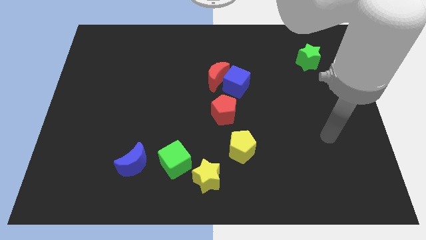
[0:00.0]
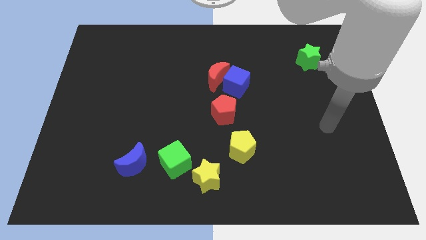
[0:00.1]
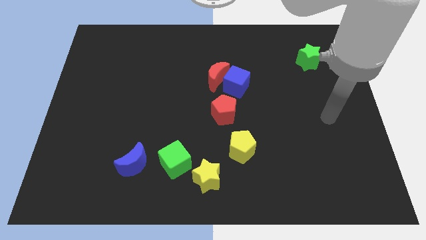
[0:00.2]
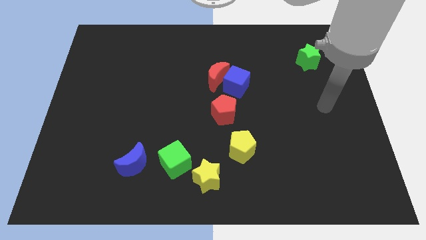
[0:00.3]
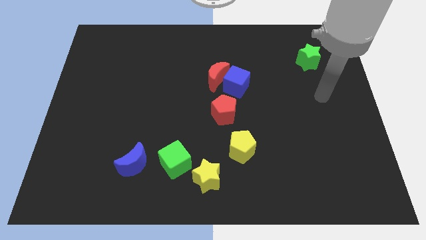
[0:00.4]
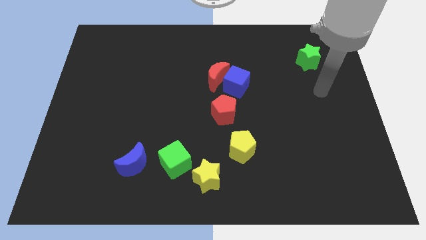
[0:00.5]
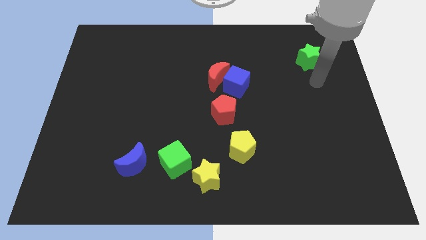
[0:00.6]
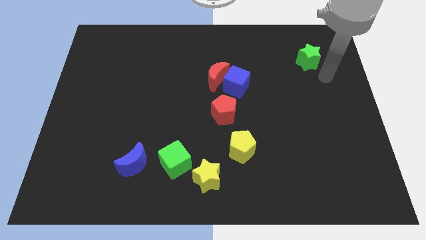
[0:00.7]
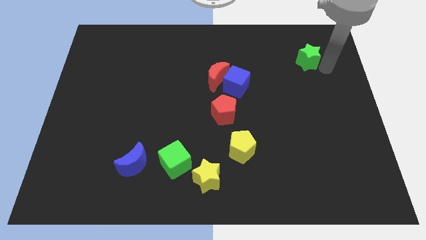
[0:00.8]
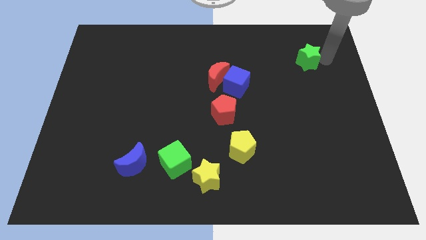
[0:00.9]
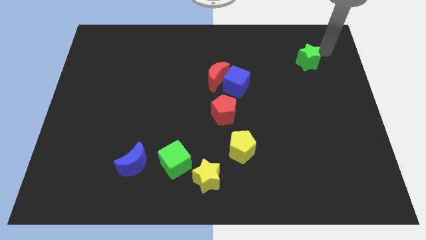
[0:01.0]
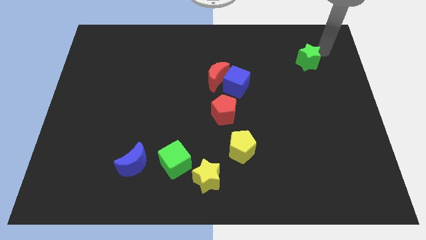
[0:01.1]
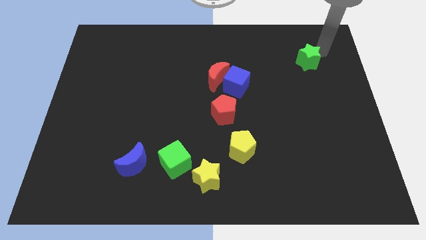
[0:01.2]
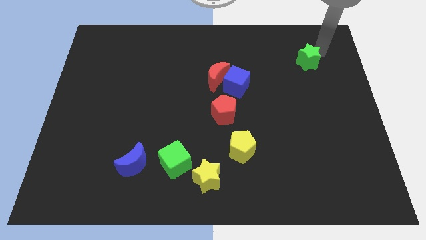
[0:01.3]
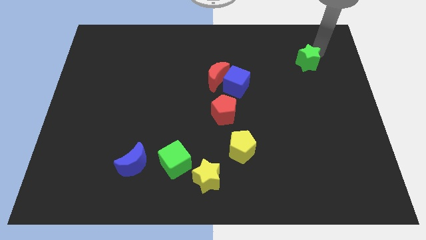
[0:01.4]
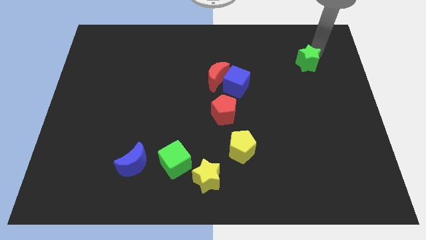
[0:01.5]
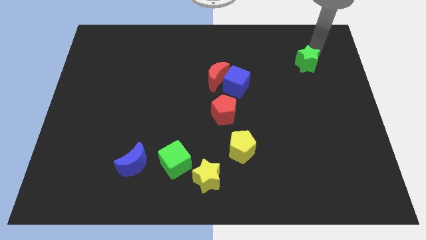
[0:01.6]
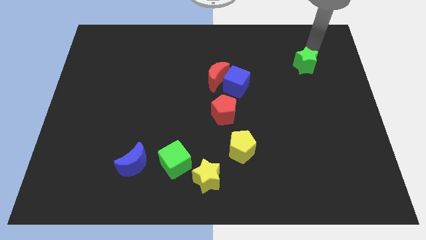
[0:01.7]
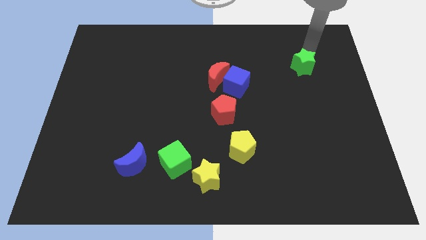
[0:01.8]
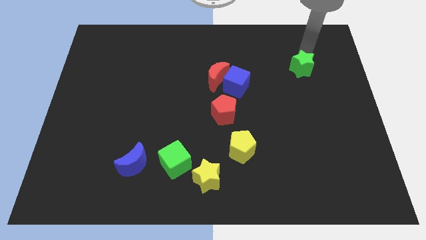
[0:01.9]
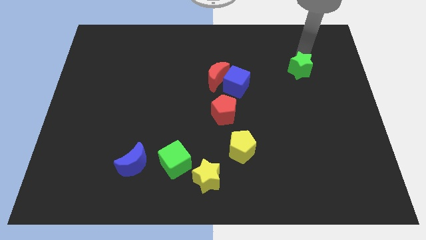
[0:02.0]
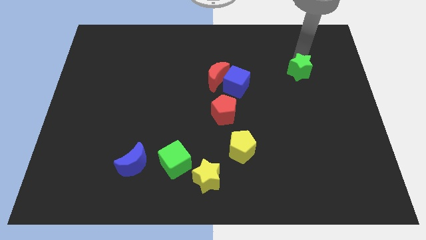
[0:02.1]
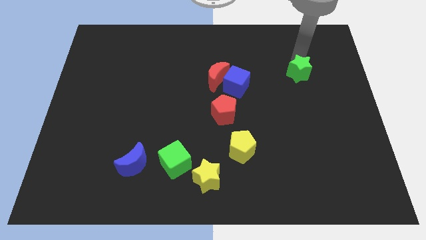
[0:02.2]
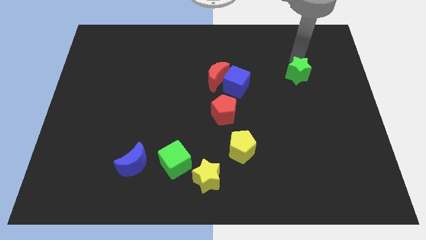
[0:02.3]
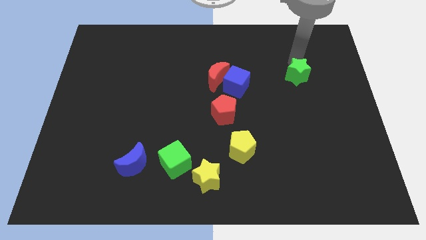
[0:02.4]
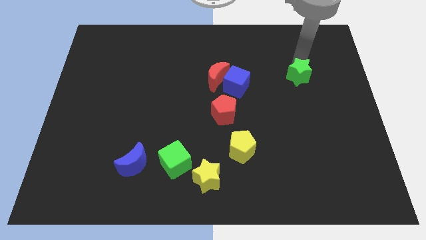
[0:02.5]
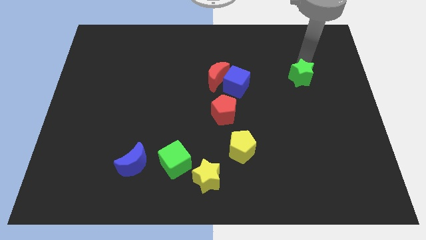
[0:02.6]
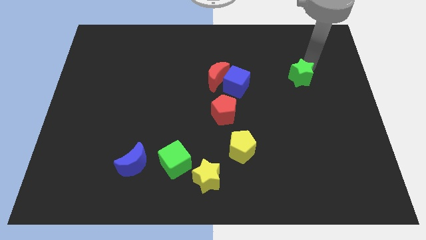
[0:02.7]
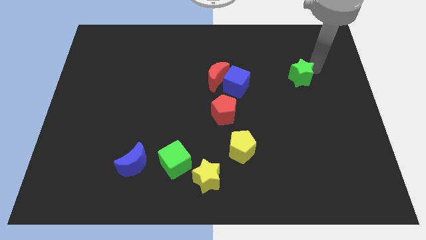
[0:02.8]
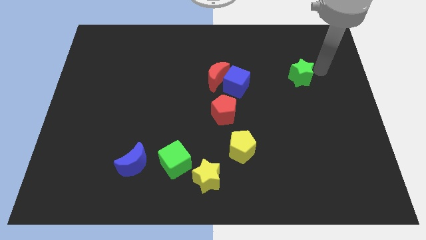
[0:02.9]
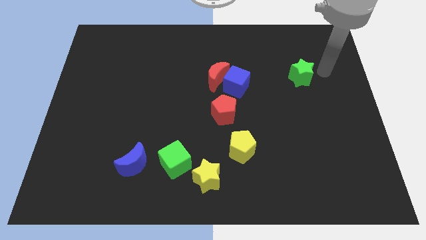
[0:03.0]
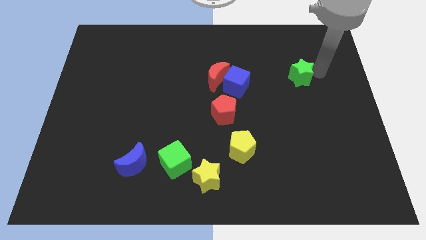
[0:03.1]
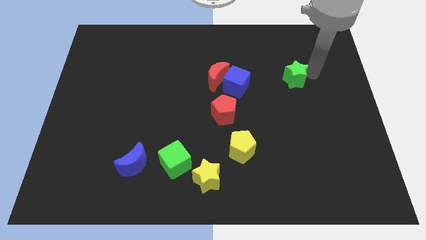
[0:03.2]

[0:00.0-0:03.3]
slightly push the green star downwards and then to the left

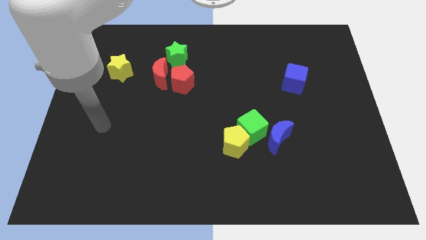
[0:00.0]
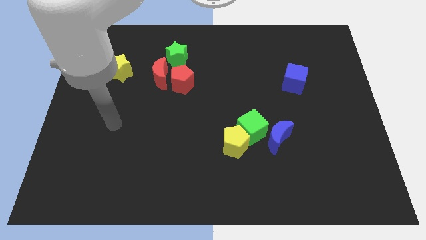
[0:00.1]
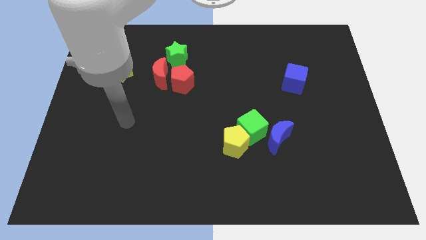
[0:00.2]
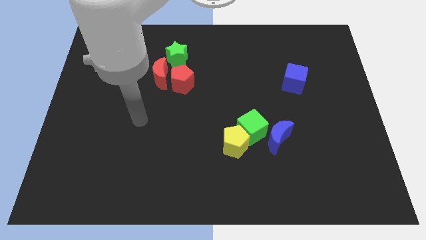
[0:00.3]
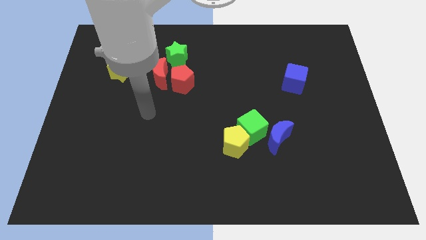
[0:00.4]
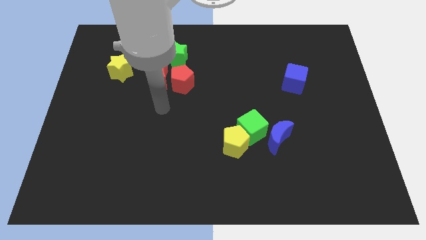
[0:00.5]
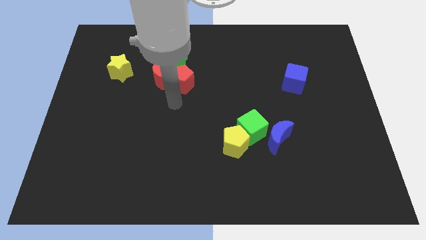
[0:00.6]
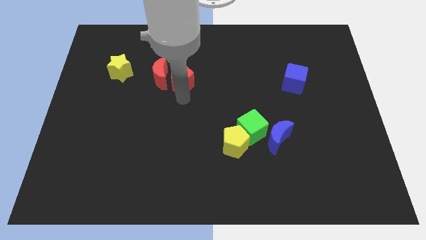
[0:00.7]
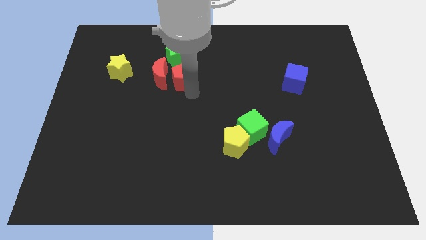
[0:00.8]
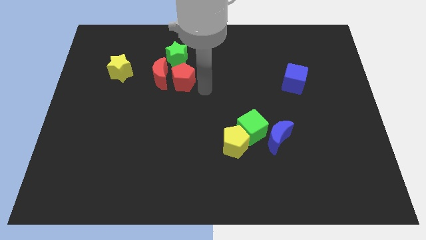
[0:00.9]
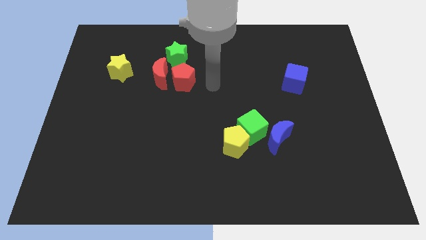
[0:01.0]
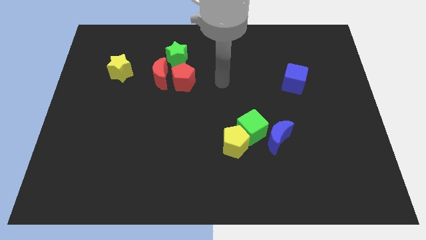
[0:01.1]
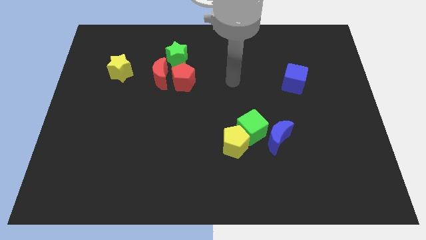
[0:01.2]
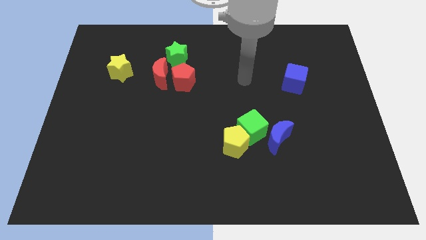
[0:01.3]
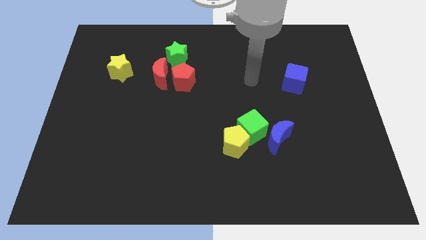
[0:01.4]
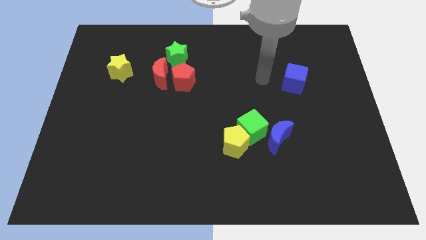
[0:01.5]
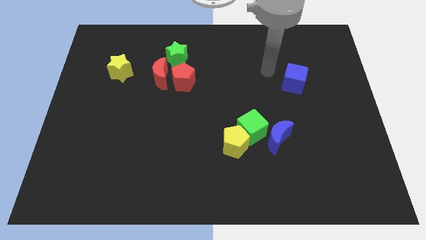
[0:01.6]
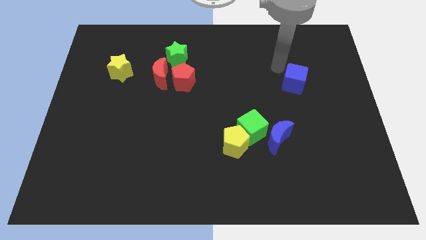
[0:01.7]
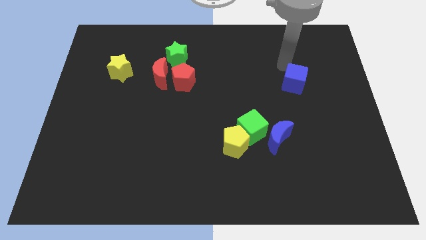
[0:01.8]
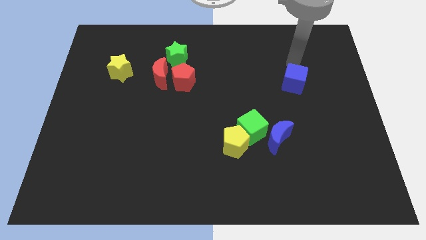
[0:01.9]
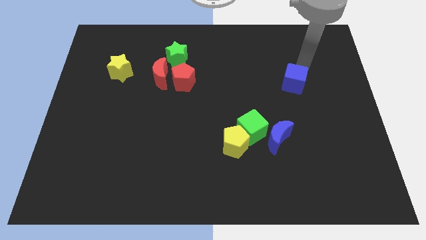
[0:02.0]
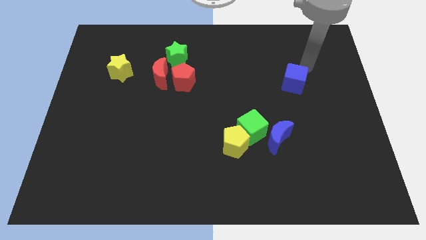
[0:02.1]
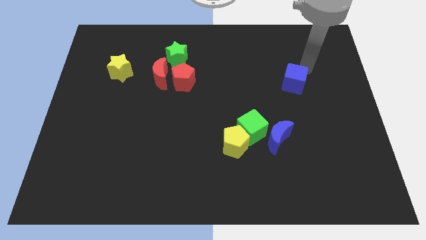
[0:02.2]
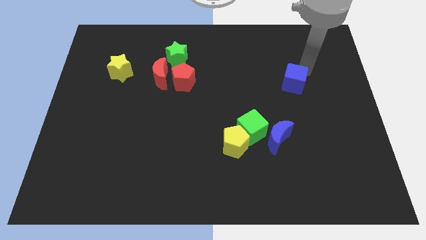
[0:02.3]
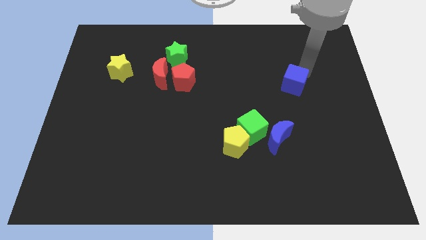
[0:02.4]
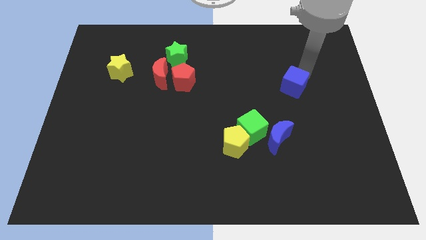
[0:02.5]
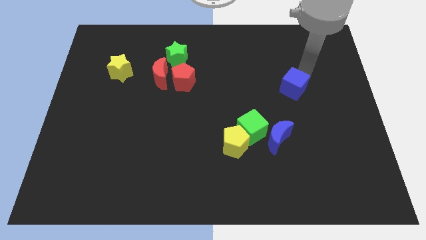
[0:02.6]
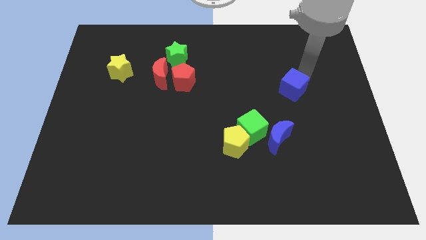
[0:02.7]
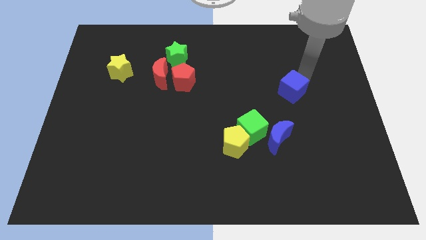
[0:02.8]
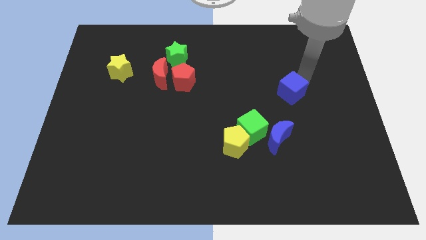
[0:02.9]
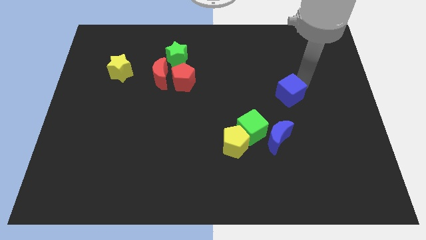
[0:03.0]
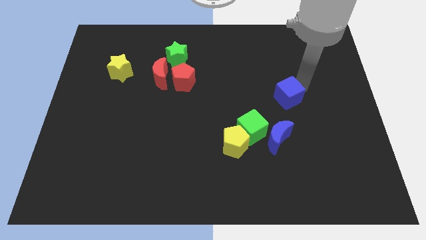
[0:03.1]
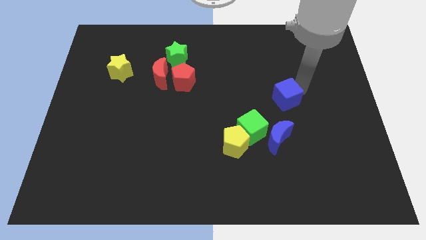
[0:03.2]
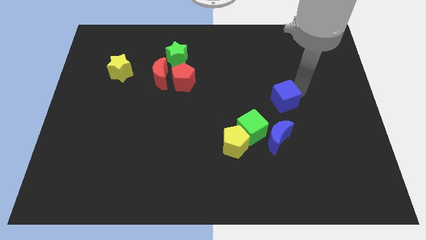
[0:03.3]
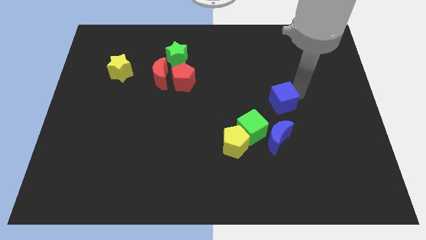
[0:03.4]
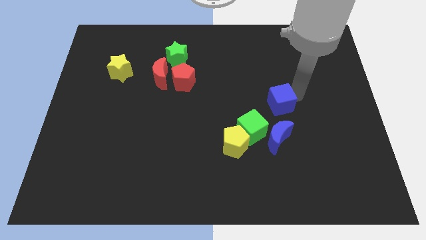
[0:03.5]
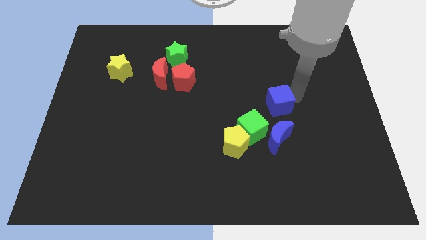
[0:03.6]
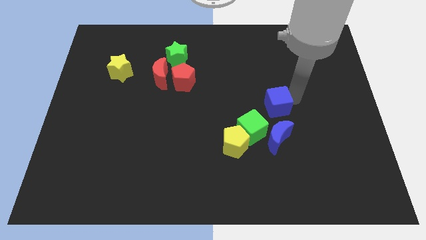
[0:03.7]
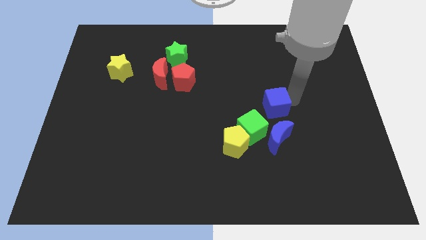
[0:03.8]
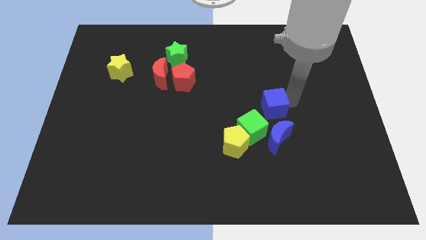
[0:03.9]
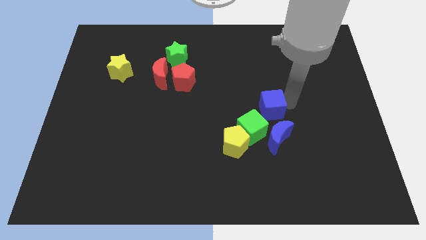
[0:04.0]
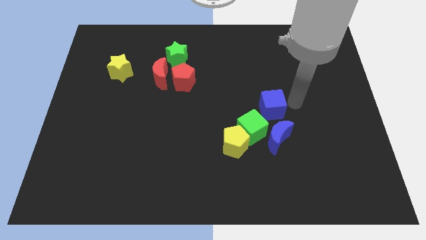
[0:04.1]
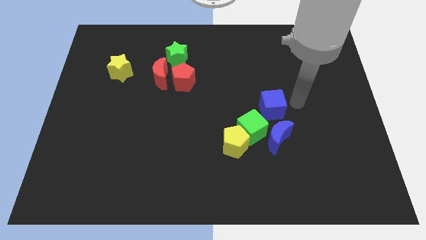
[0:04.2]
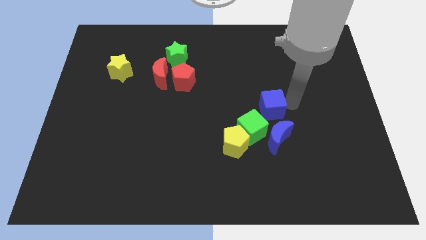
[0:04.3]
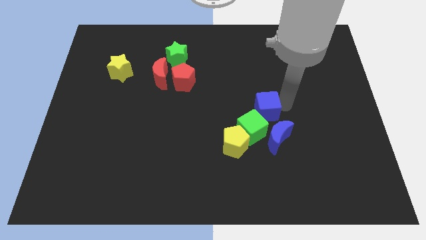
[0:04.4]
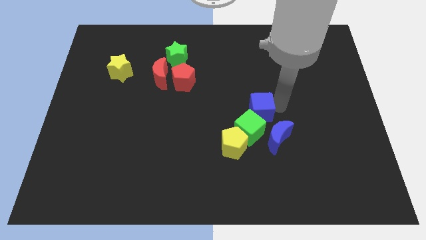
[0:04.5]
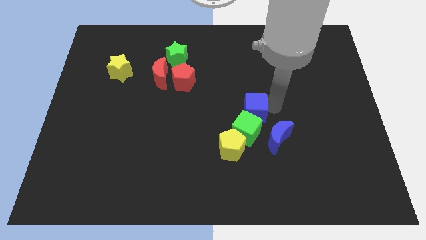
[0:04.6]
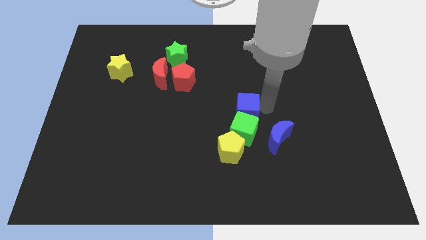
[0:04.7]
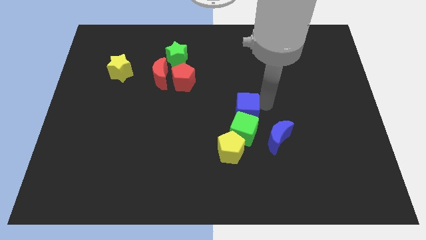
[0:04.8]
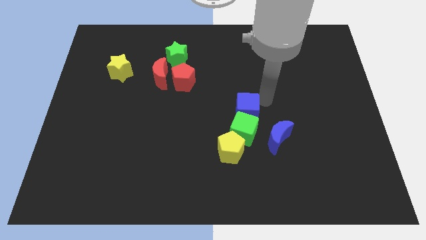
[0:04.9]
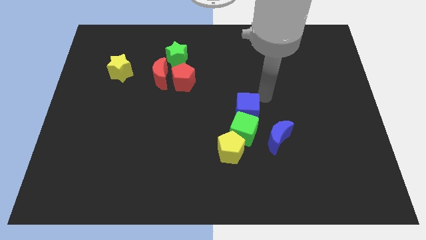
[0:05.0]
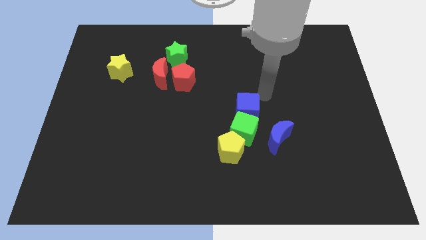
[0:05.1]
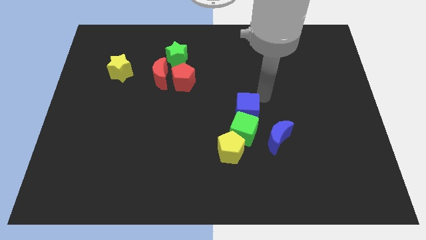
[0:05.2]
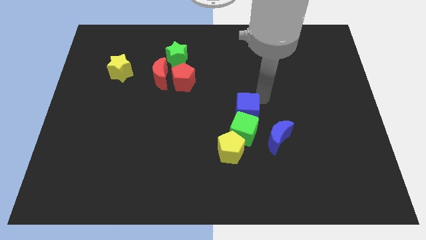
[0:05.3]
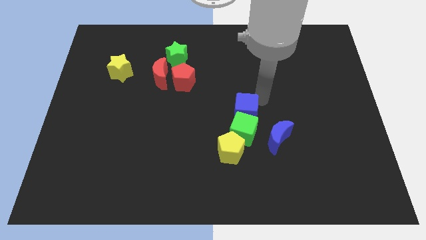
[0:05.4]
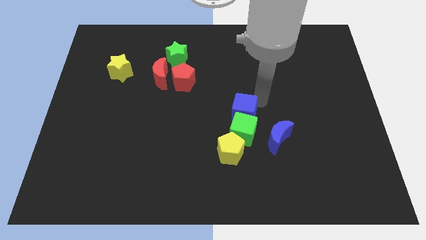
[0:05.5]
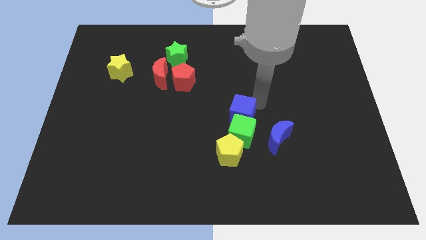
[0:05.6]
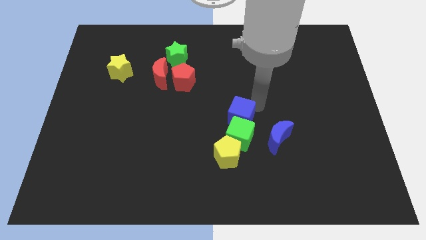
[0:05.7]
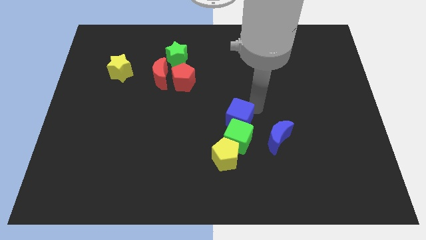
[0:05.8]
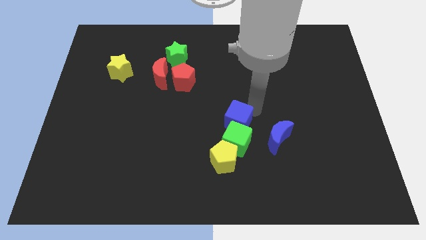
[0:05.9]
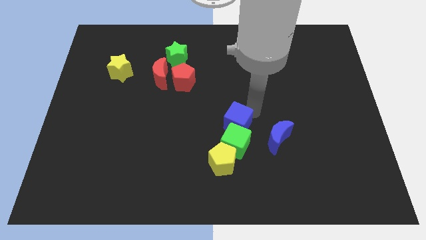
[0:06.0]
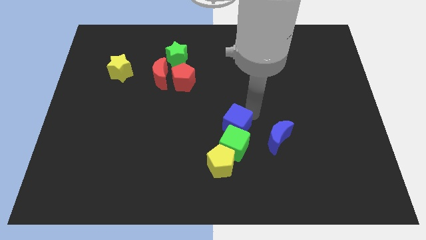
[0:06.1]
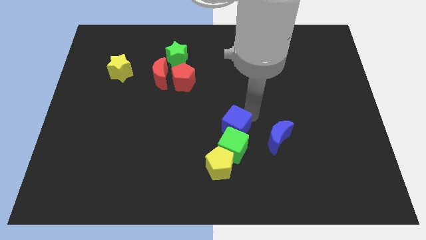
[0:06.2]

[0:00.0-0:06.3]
slide the blue cube downwards and left
